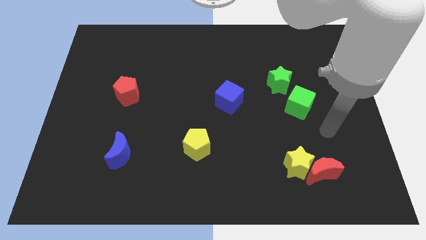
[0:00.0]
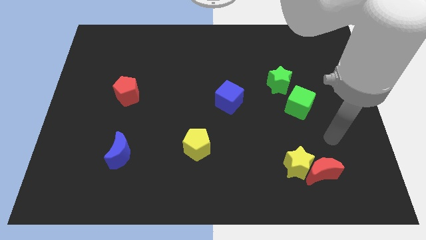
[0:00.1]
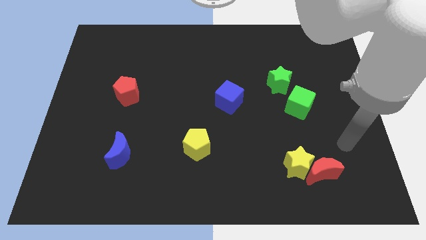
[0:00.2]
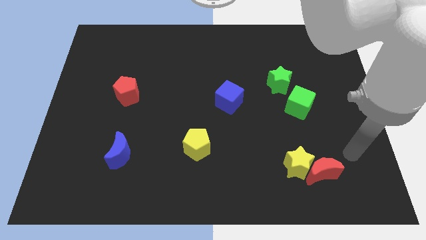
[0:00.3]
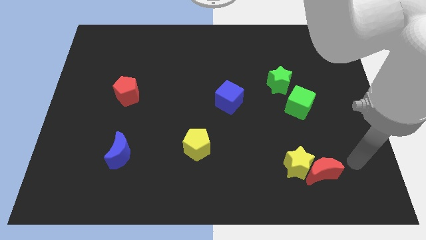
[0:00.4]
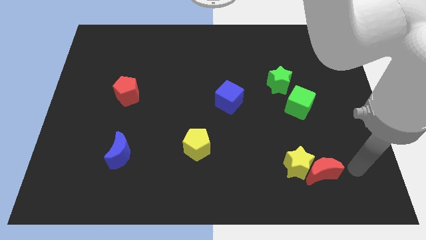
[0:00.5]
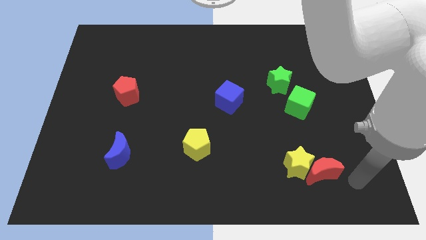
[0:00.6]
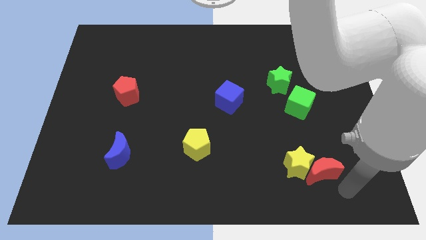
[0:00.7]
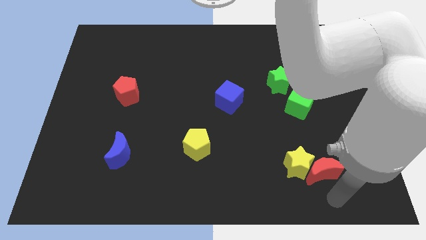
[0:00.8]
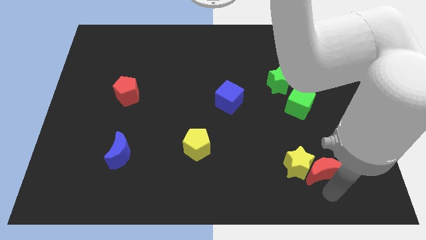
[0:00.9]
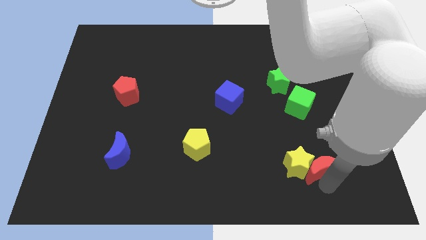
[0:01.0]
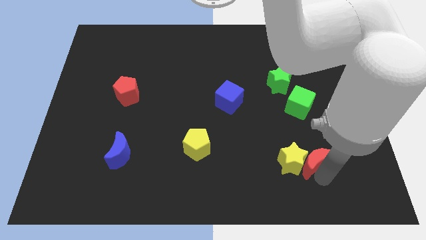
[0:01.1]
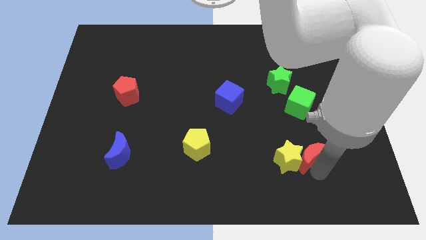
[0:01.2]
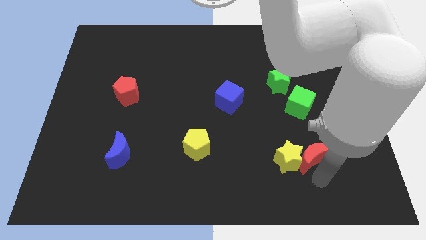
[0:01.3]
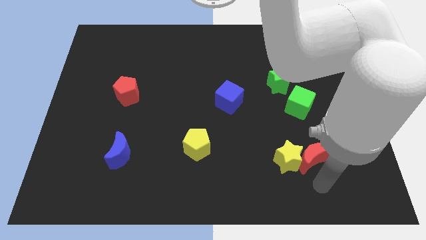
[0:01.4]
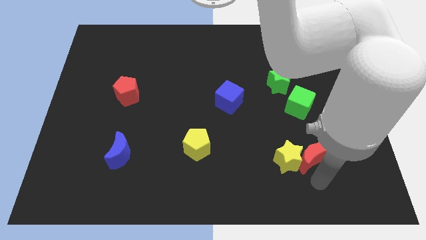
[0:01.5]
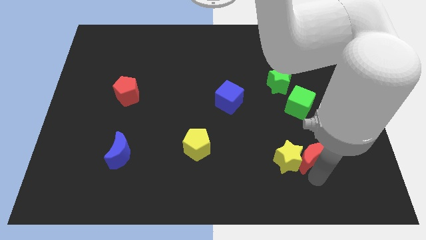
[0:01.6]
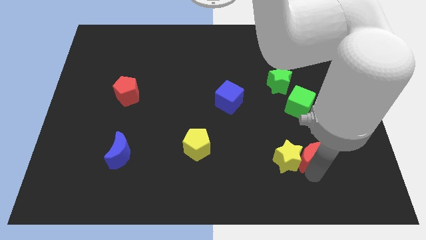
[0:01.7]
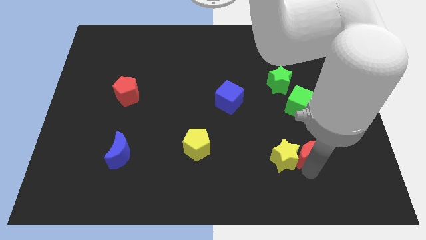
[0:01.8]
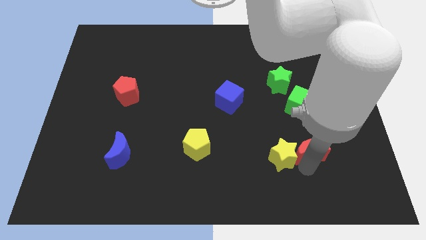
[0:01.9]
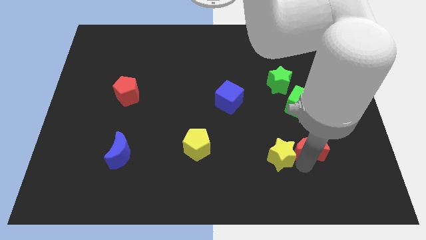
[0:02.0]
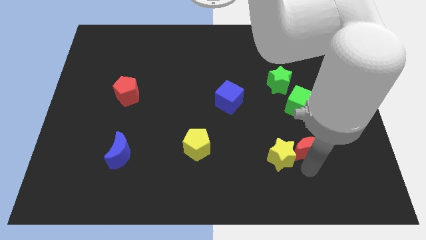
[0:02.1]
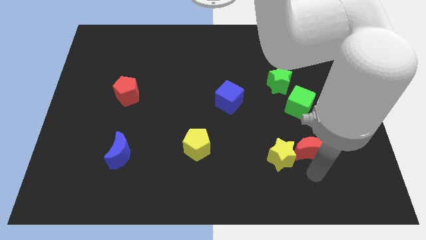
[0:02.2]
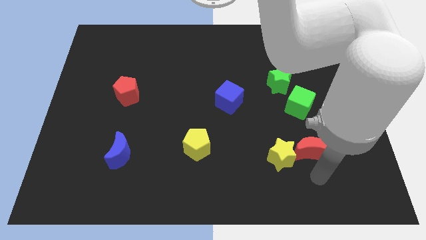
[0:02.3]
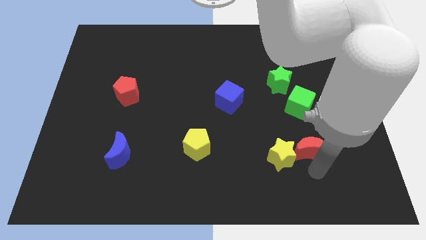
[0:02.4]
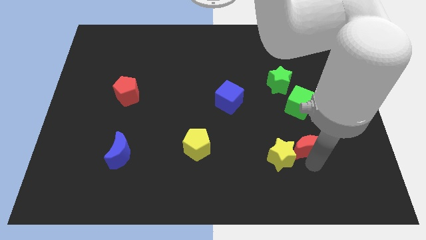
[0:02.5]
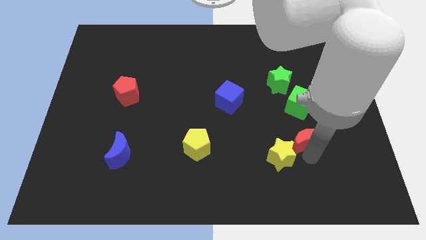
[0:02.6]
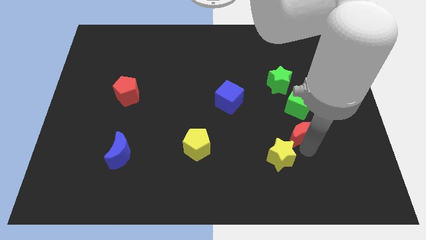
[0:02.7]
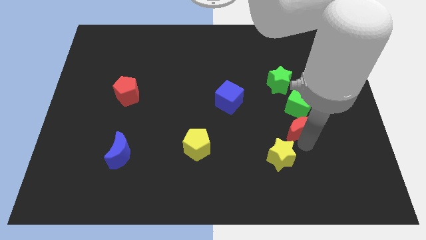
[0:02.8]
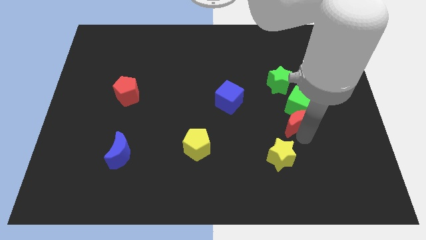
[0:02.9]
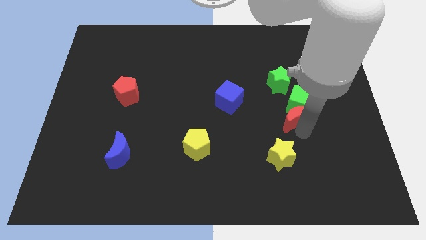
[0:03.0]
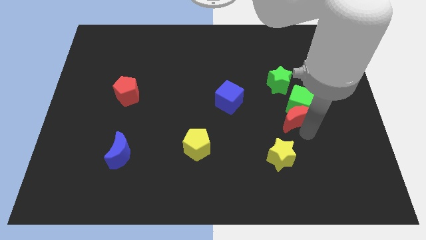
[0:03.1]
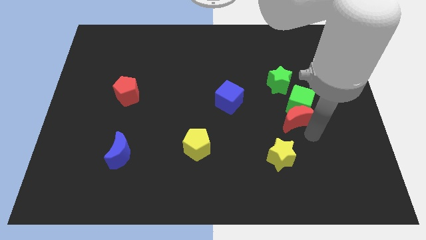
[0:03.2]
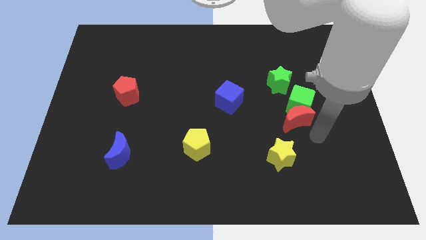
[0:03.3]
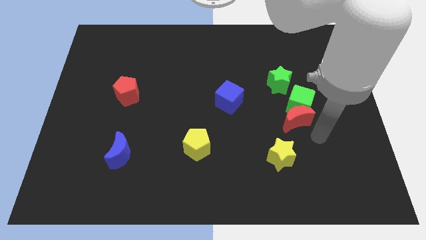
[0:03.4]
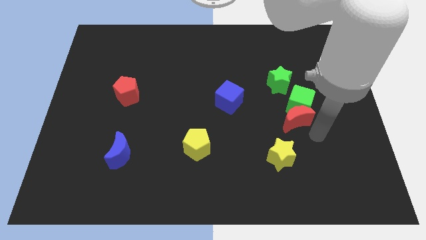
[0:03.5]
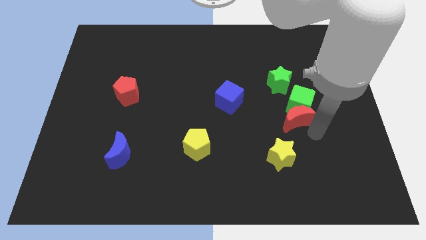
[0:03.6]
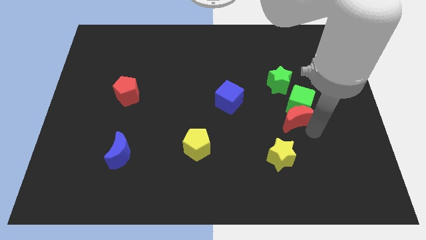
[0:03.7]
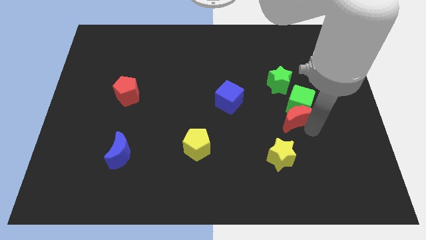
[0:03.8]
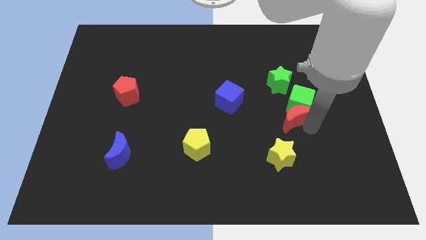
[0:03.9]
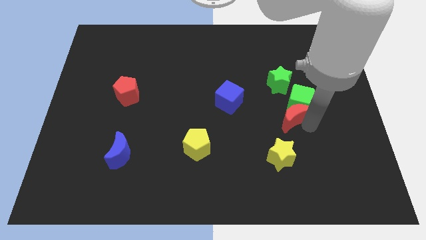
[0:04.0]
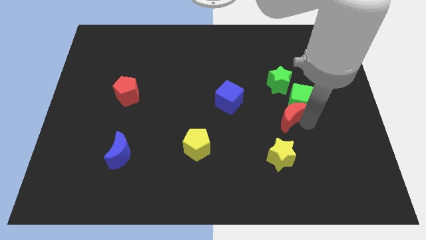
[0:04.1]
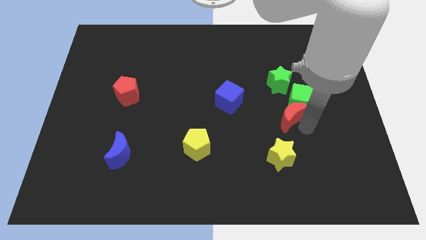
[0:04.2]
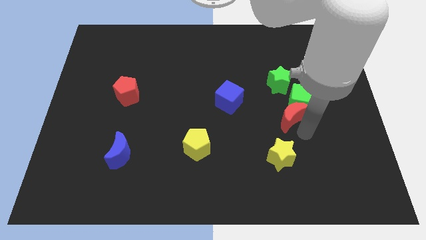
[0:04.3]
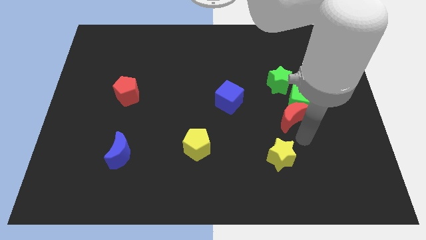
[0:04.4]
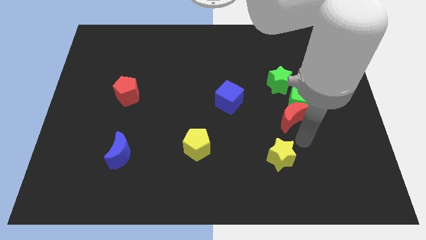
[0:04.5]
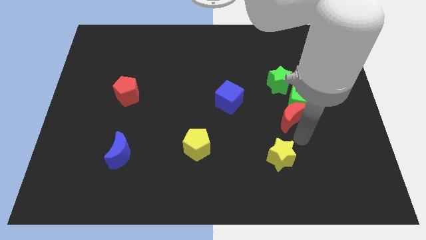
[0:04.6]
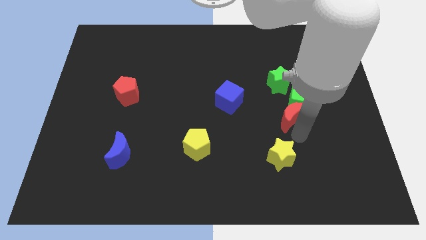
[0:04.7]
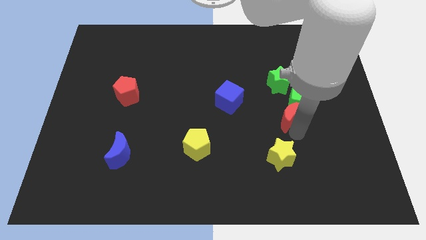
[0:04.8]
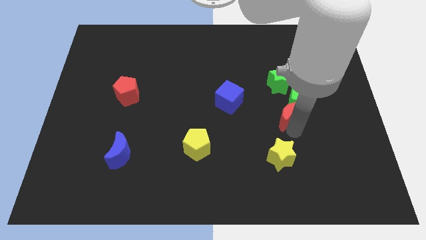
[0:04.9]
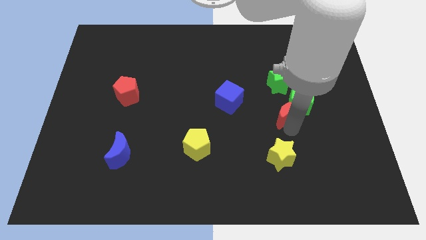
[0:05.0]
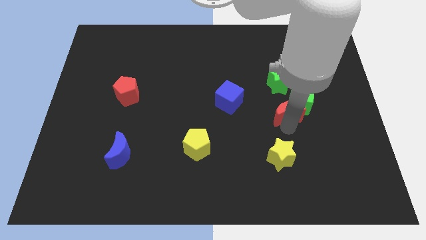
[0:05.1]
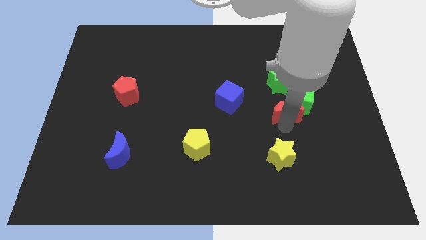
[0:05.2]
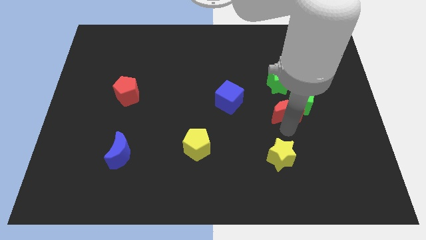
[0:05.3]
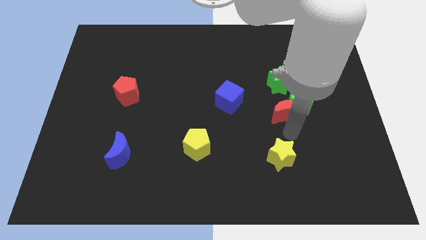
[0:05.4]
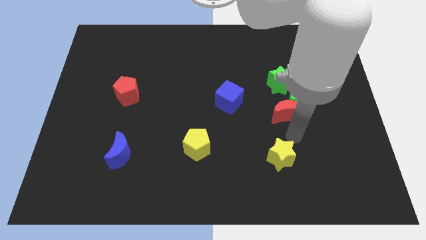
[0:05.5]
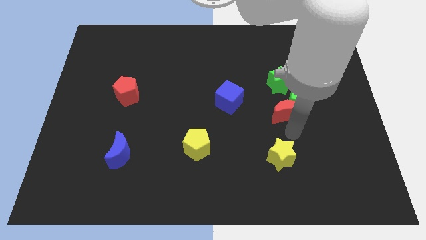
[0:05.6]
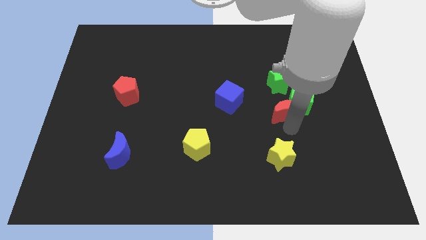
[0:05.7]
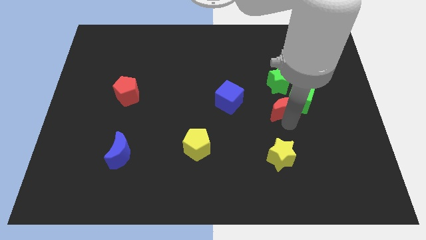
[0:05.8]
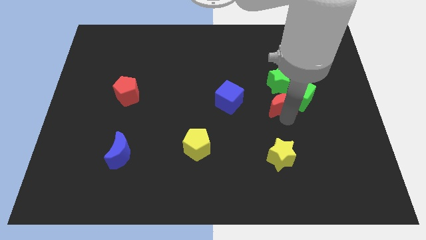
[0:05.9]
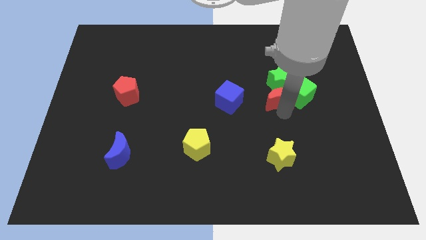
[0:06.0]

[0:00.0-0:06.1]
put the red moon close to the green star

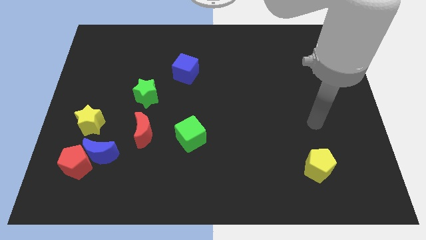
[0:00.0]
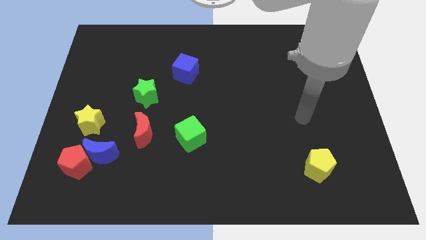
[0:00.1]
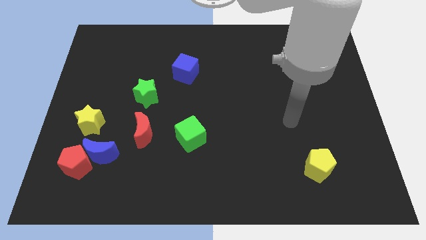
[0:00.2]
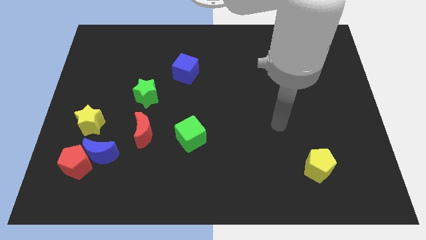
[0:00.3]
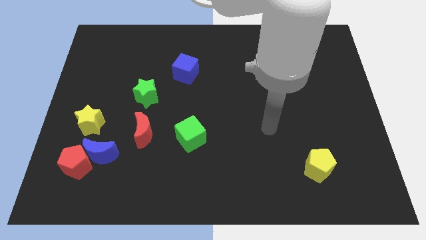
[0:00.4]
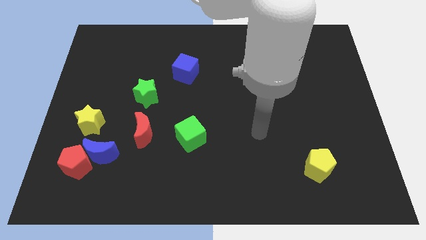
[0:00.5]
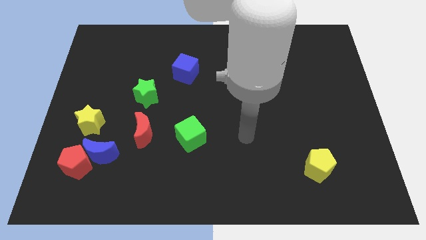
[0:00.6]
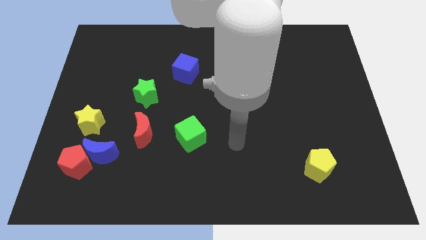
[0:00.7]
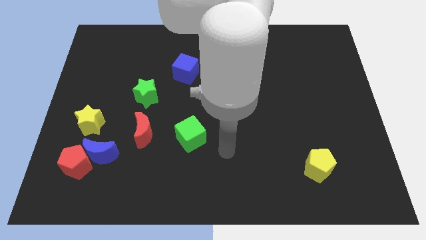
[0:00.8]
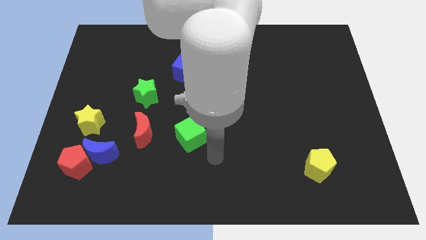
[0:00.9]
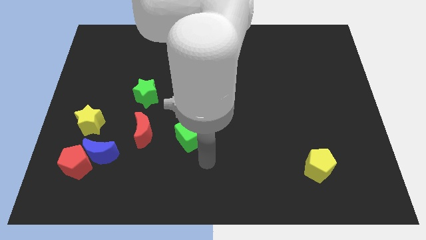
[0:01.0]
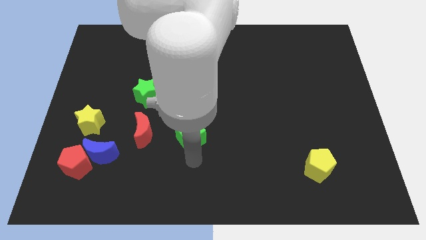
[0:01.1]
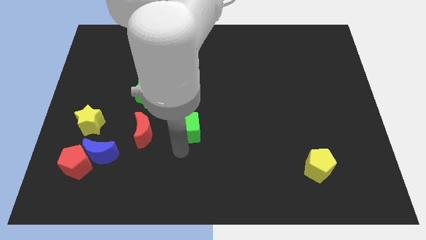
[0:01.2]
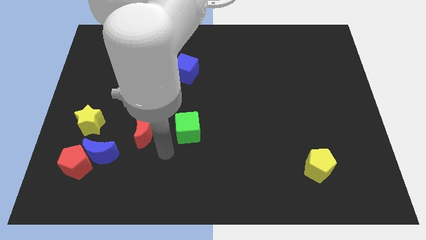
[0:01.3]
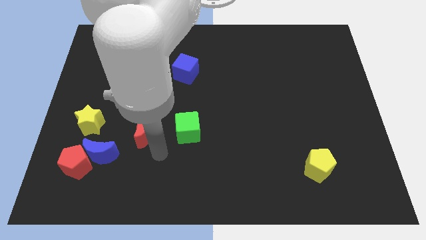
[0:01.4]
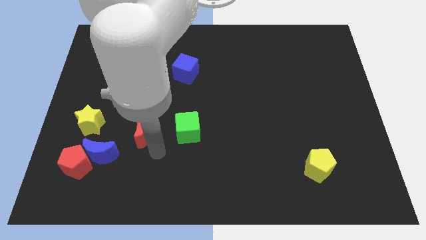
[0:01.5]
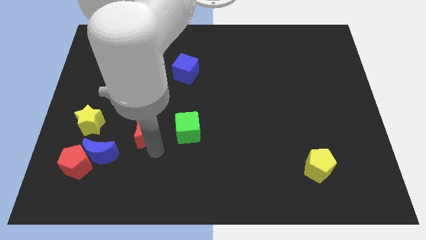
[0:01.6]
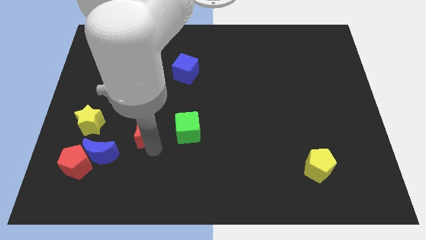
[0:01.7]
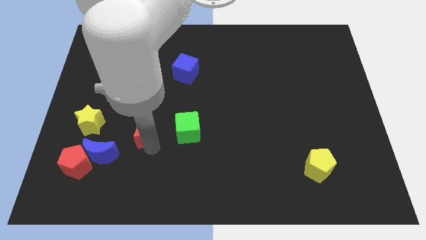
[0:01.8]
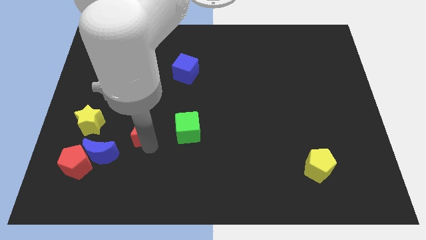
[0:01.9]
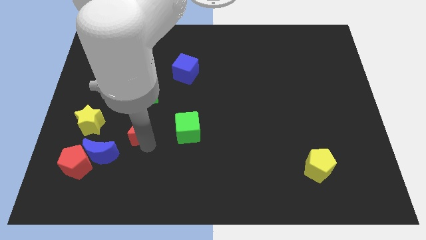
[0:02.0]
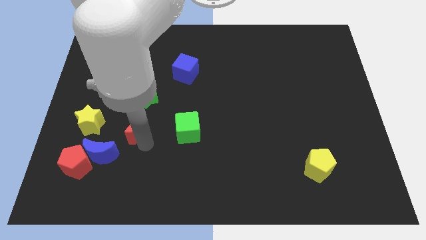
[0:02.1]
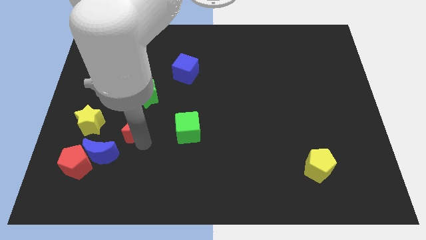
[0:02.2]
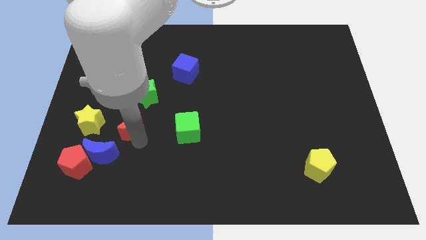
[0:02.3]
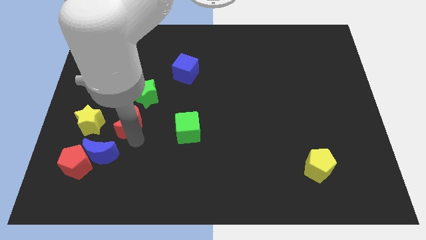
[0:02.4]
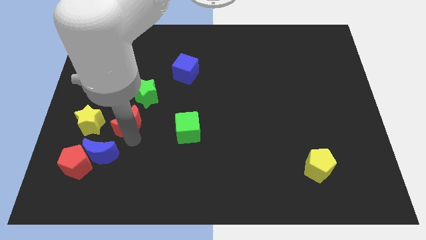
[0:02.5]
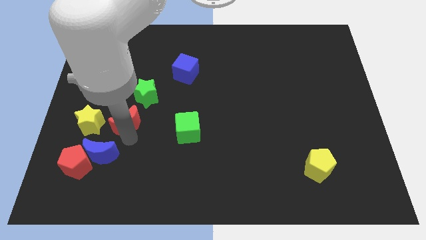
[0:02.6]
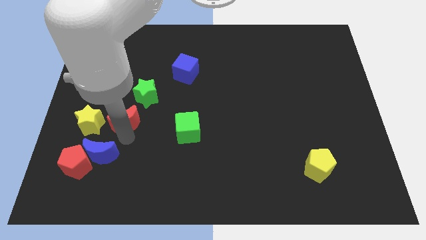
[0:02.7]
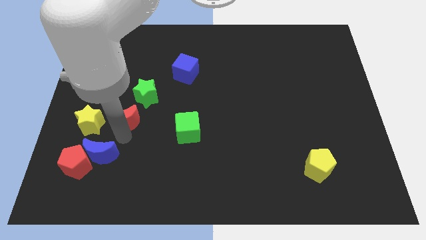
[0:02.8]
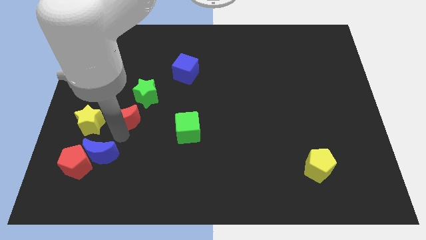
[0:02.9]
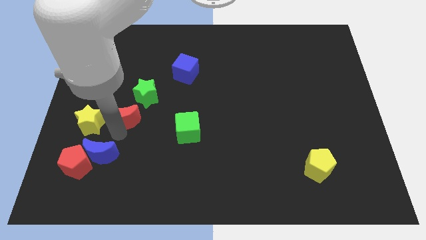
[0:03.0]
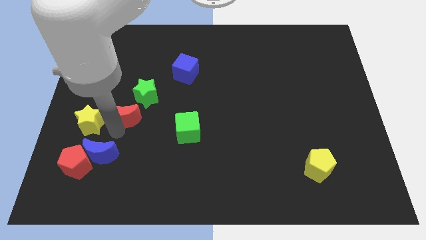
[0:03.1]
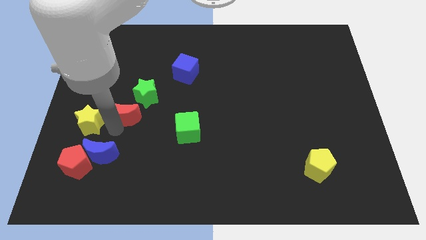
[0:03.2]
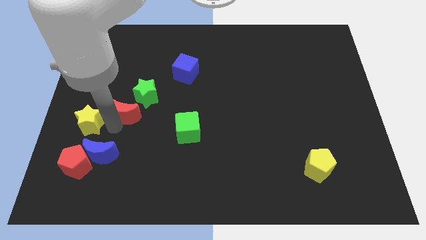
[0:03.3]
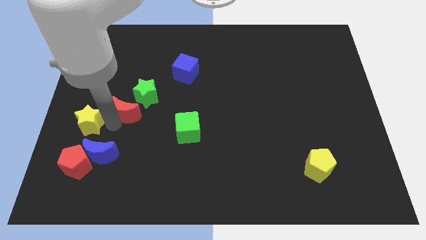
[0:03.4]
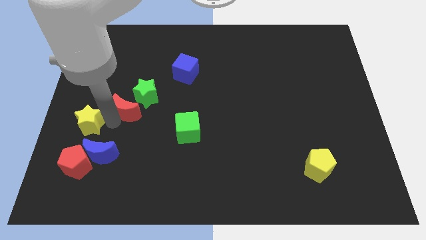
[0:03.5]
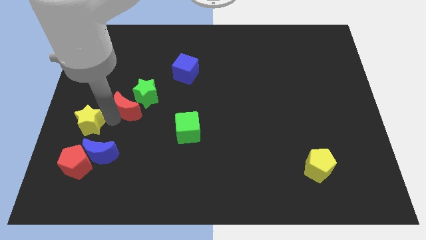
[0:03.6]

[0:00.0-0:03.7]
slide the red moon to the green star
